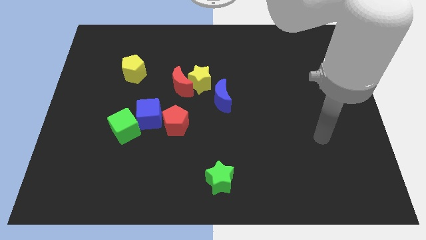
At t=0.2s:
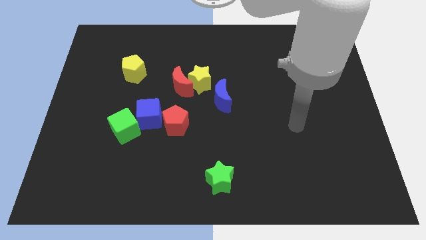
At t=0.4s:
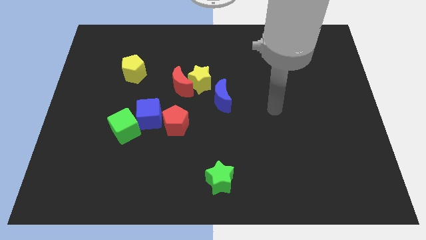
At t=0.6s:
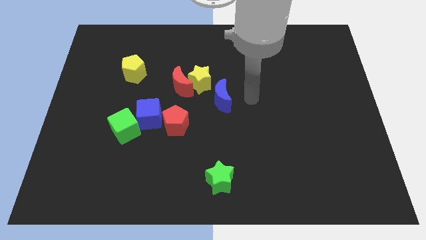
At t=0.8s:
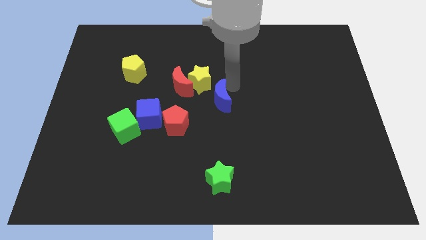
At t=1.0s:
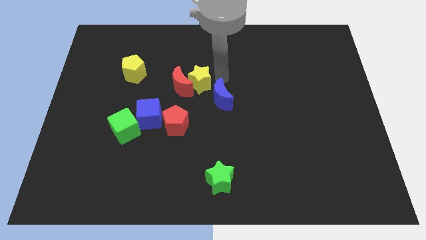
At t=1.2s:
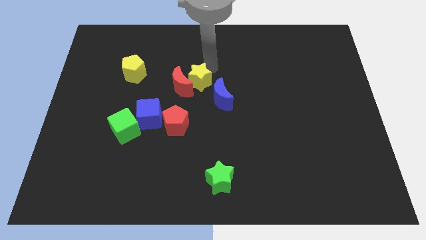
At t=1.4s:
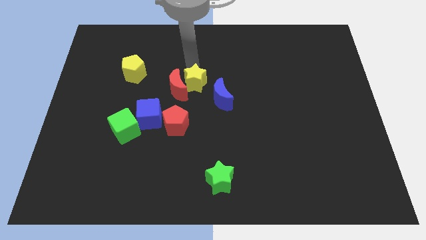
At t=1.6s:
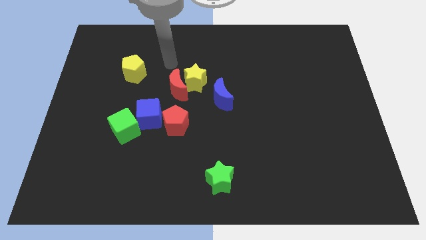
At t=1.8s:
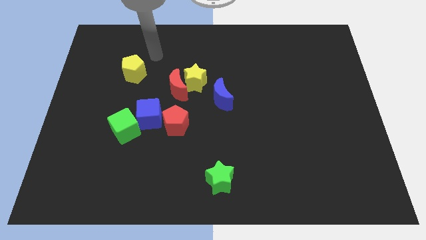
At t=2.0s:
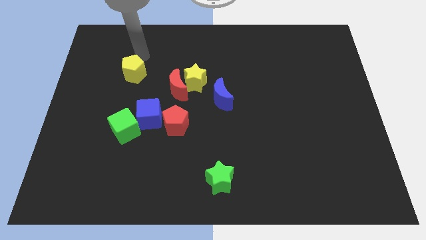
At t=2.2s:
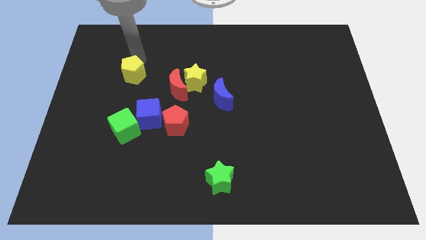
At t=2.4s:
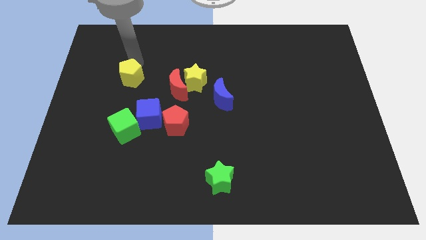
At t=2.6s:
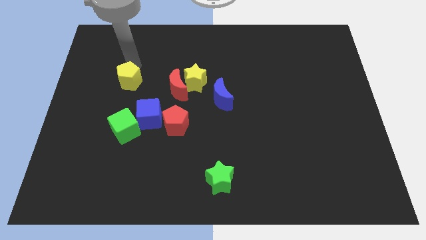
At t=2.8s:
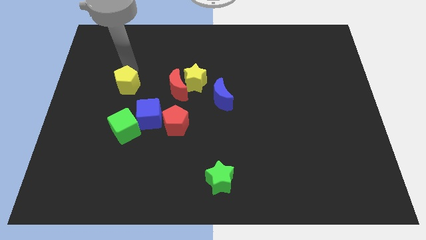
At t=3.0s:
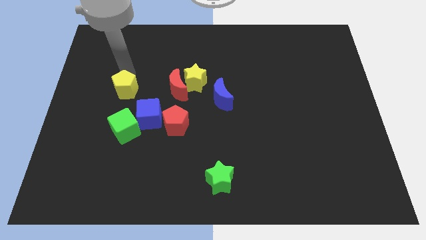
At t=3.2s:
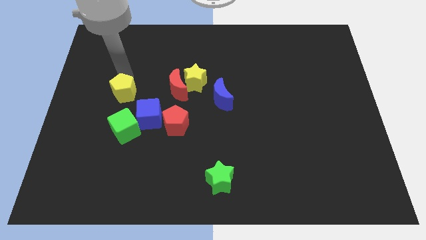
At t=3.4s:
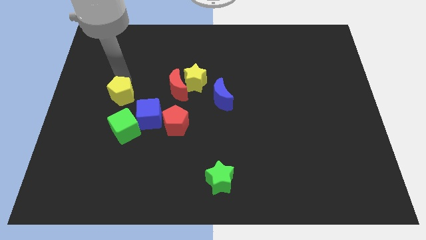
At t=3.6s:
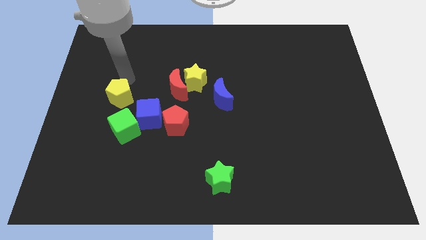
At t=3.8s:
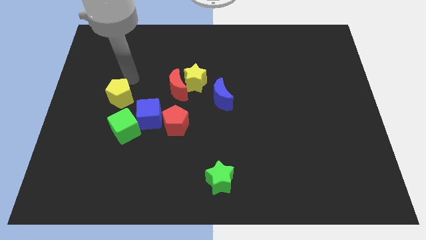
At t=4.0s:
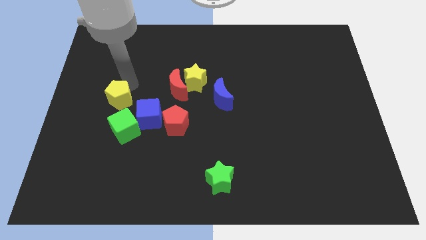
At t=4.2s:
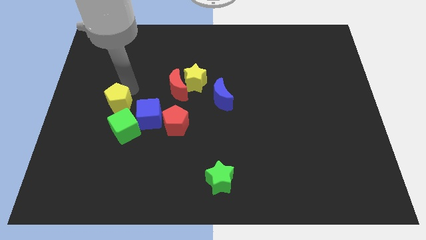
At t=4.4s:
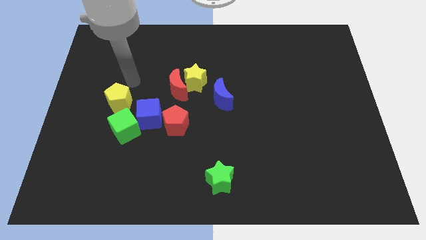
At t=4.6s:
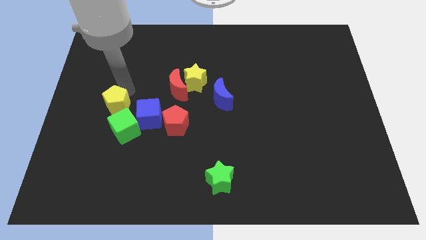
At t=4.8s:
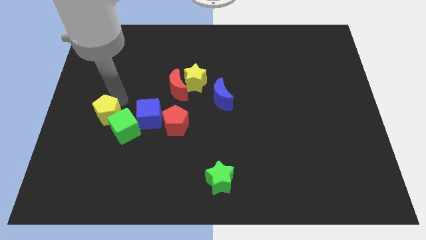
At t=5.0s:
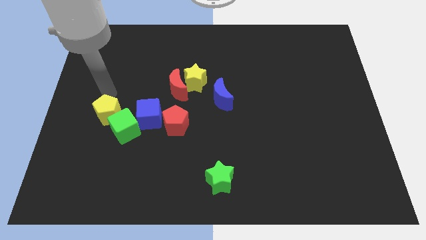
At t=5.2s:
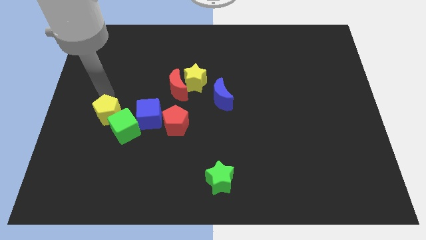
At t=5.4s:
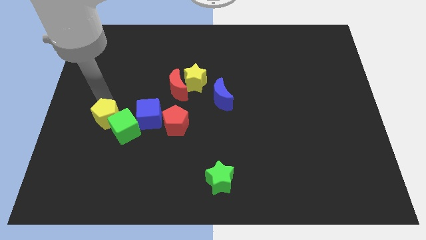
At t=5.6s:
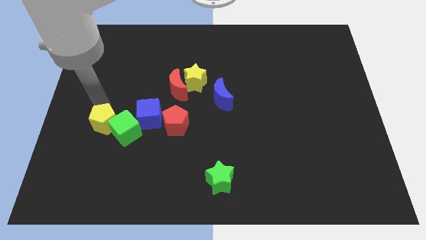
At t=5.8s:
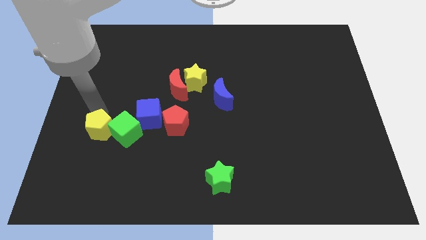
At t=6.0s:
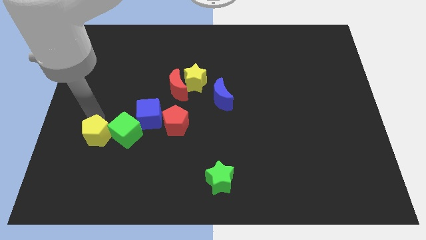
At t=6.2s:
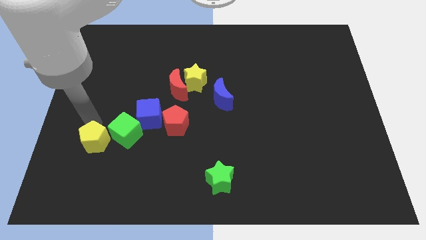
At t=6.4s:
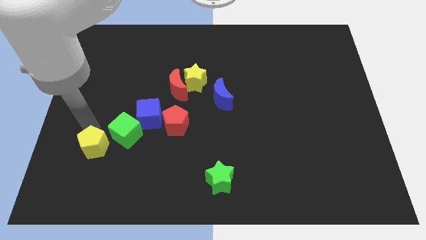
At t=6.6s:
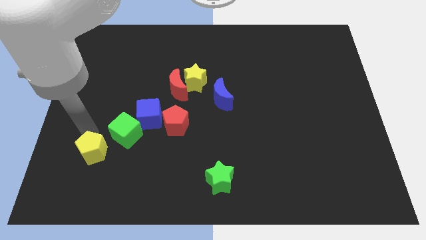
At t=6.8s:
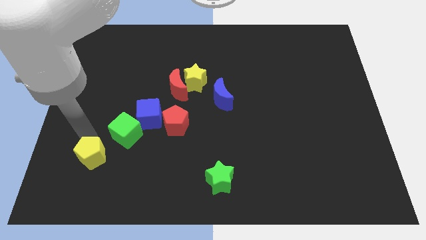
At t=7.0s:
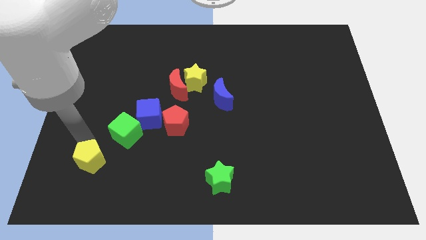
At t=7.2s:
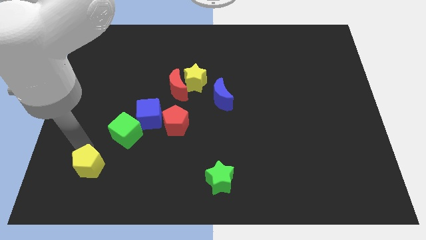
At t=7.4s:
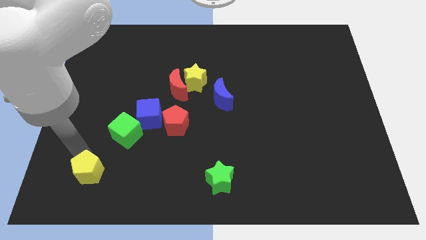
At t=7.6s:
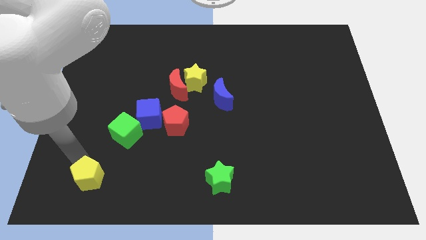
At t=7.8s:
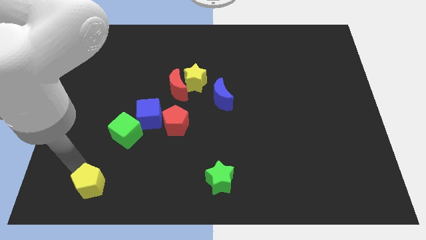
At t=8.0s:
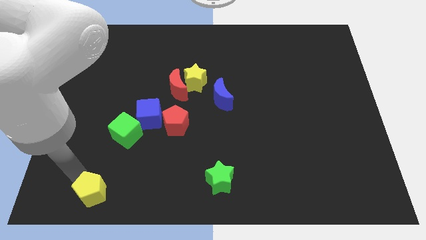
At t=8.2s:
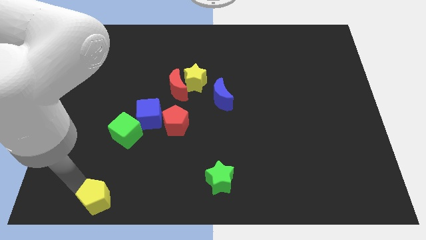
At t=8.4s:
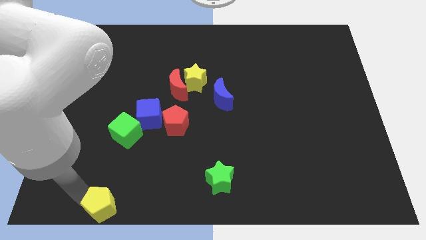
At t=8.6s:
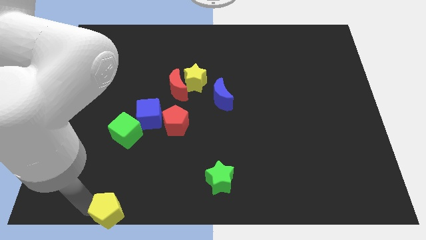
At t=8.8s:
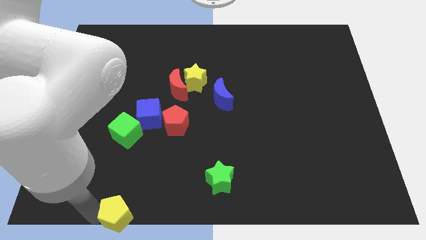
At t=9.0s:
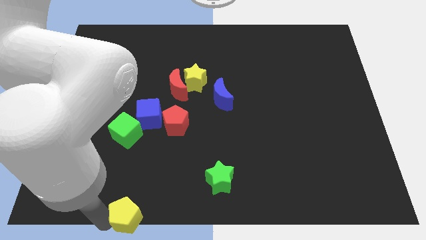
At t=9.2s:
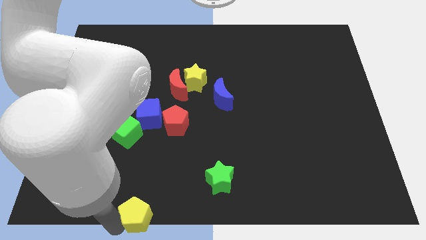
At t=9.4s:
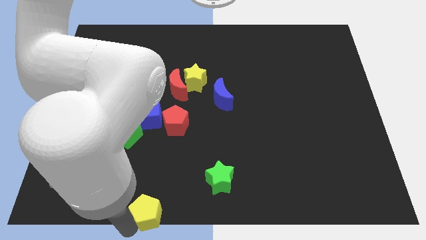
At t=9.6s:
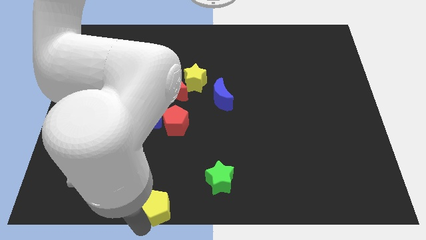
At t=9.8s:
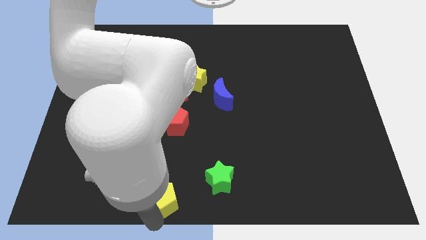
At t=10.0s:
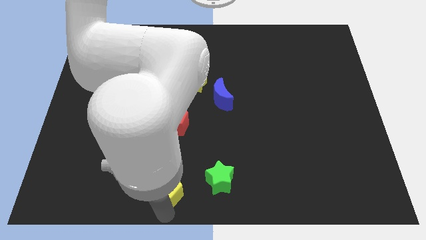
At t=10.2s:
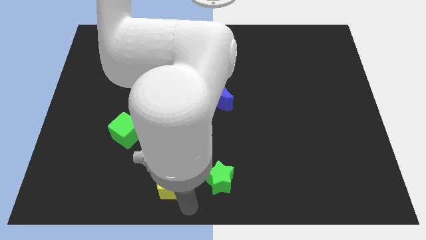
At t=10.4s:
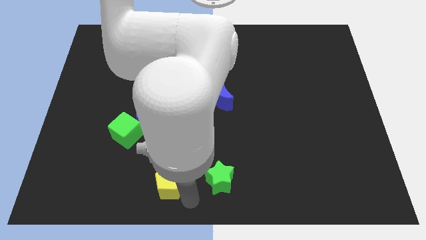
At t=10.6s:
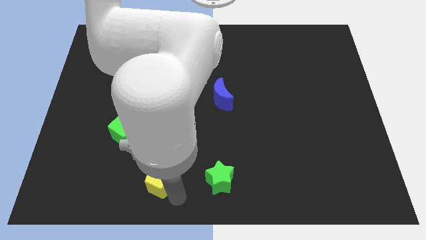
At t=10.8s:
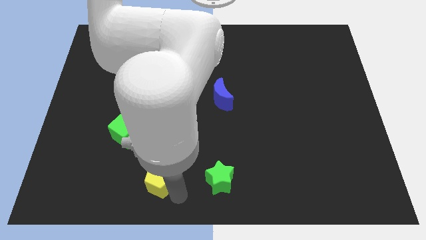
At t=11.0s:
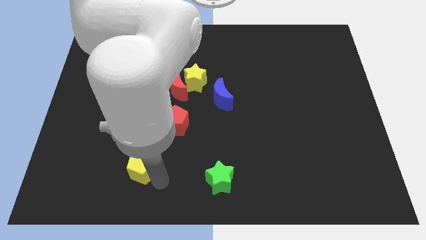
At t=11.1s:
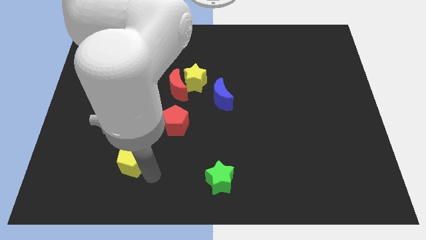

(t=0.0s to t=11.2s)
put the yellow pentagon diagonally down and to the left of the red pentagon

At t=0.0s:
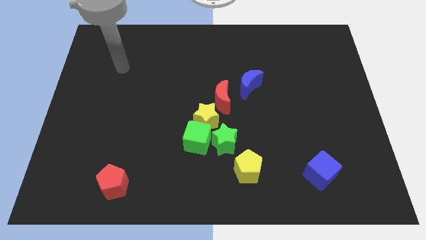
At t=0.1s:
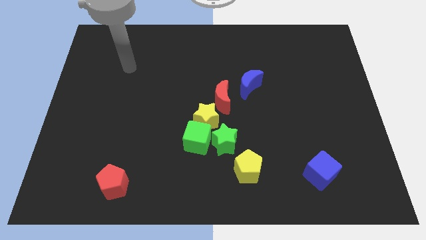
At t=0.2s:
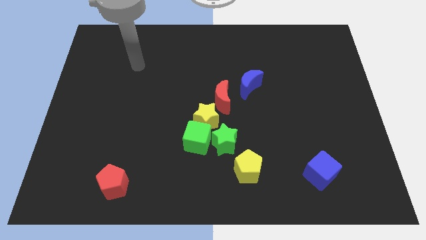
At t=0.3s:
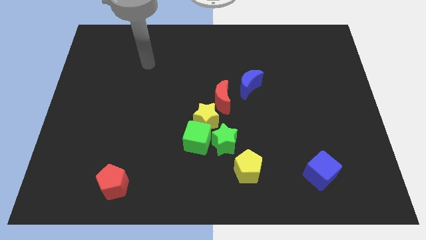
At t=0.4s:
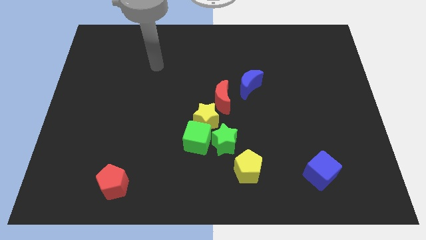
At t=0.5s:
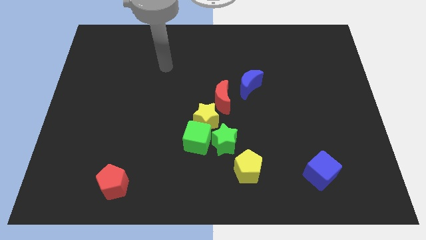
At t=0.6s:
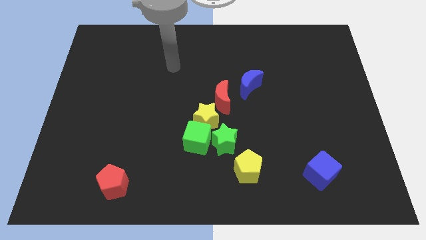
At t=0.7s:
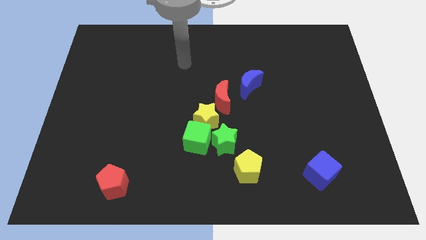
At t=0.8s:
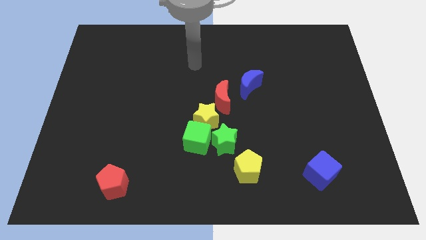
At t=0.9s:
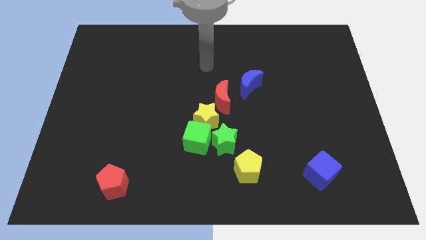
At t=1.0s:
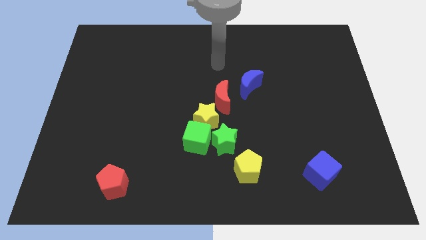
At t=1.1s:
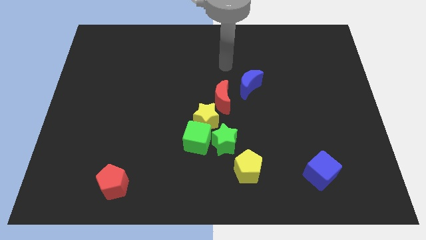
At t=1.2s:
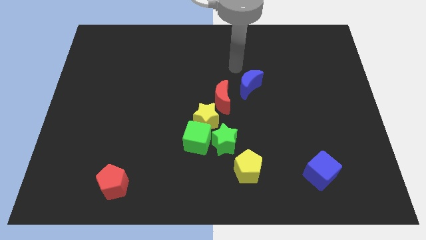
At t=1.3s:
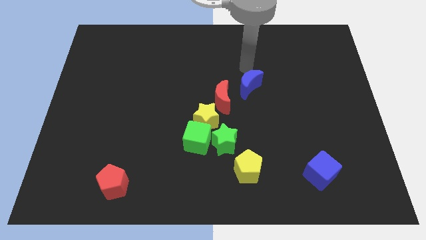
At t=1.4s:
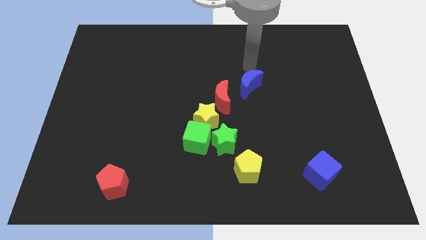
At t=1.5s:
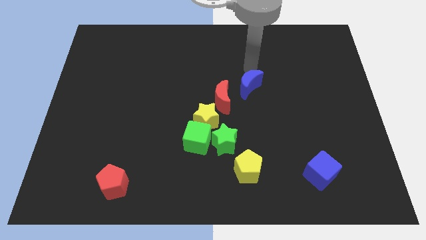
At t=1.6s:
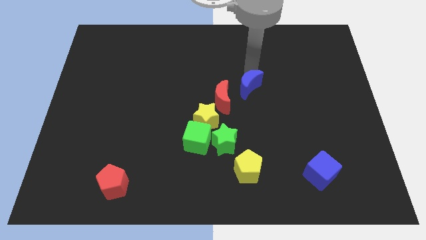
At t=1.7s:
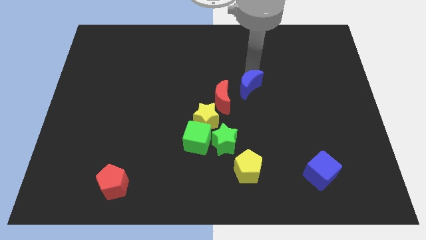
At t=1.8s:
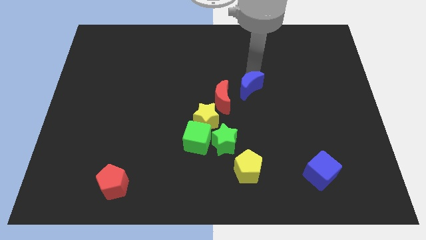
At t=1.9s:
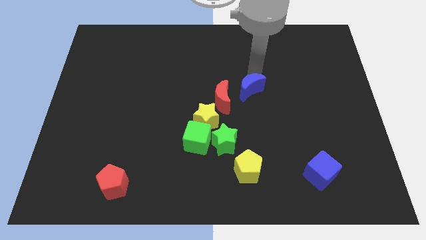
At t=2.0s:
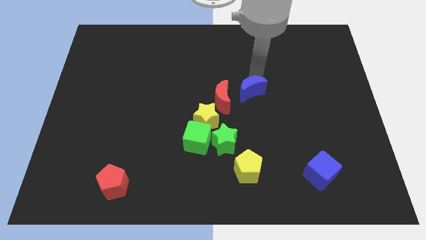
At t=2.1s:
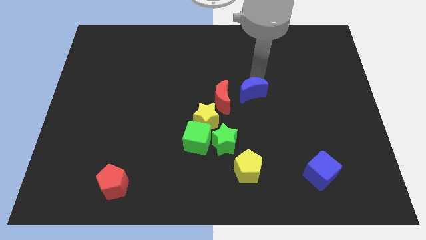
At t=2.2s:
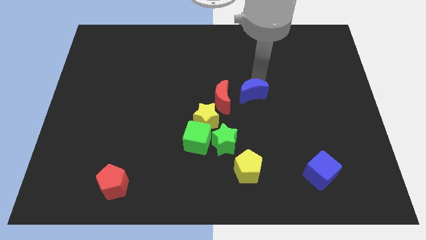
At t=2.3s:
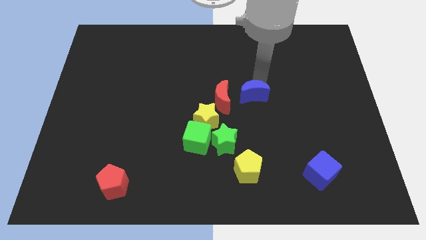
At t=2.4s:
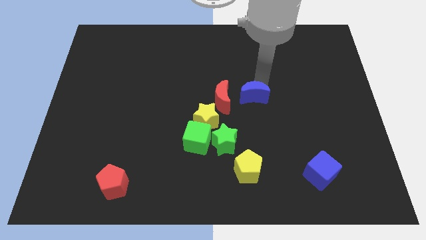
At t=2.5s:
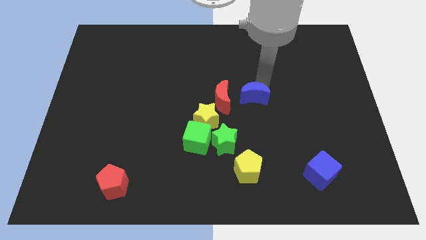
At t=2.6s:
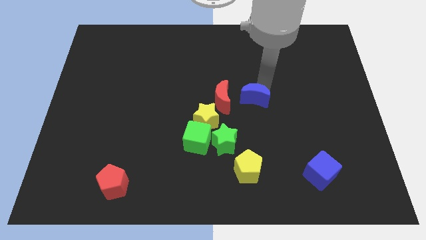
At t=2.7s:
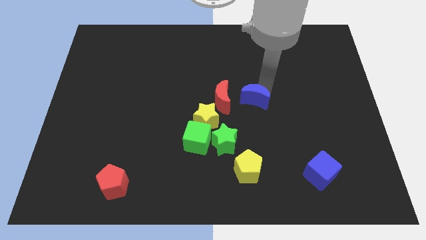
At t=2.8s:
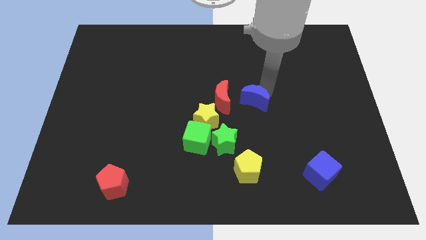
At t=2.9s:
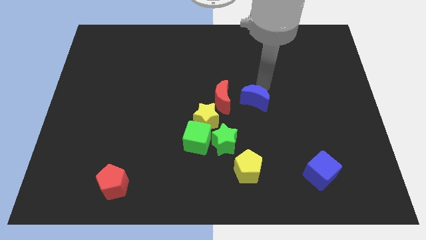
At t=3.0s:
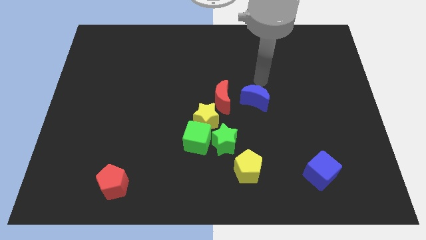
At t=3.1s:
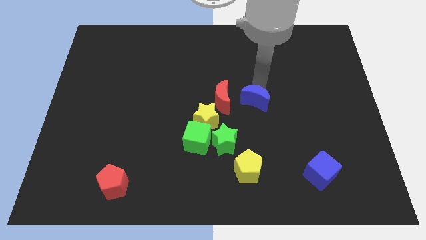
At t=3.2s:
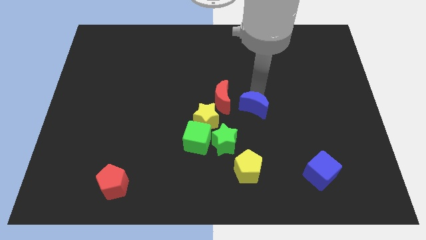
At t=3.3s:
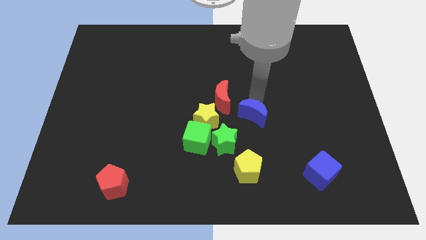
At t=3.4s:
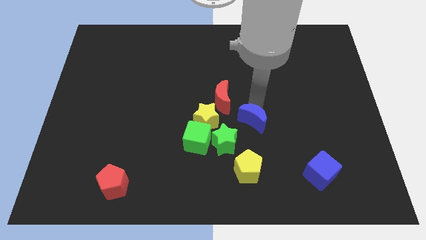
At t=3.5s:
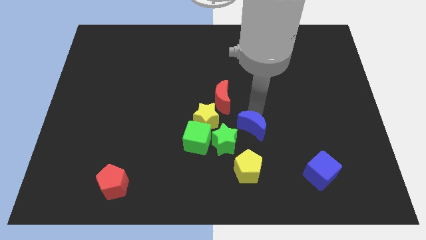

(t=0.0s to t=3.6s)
move the blue moon to the right side of the green cube
